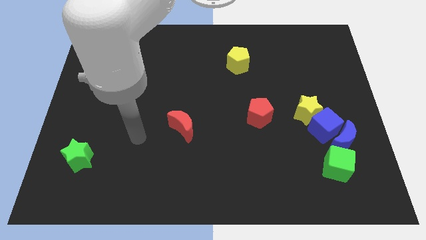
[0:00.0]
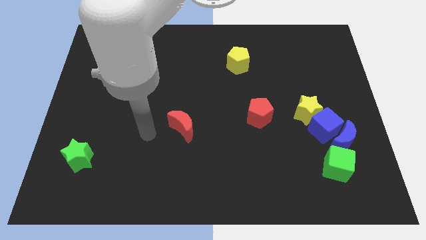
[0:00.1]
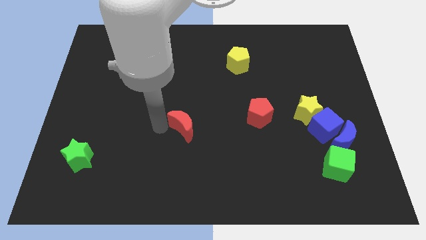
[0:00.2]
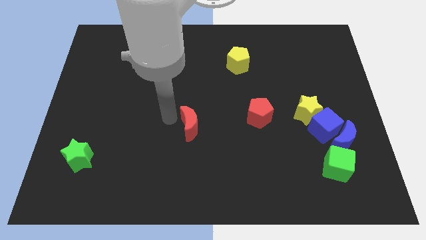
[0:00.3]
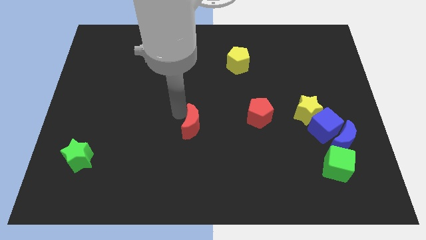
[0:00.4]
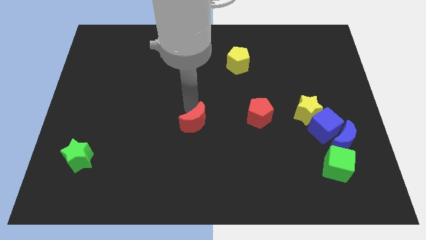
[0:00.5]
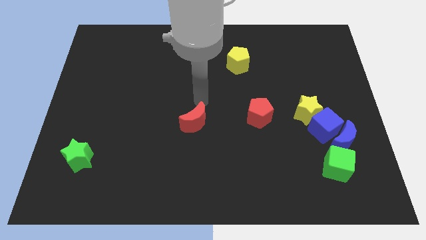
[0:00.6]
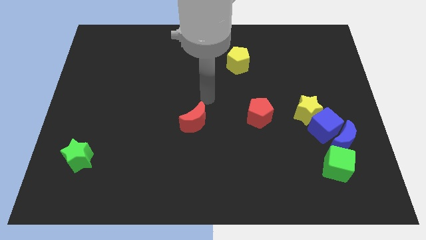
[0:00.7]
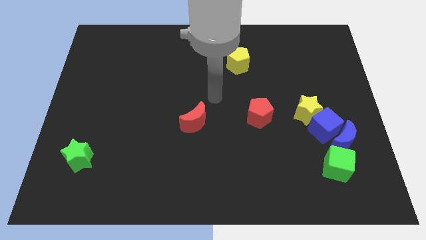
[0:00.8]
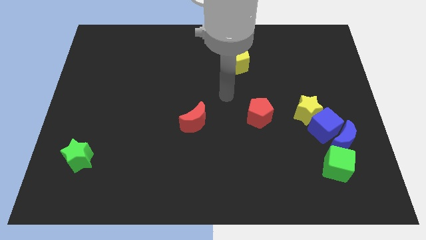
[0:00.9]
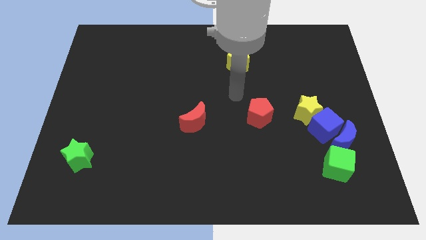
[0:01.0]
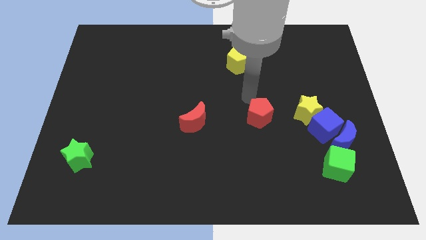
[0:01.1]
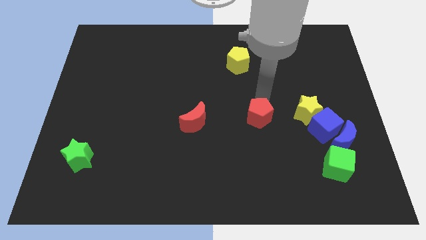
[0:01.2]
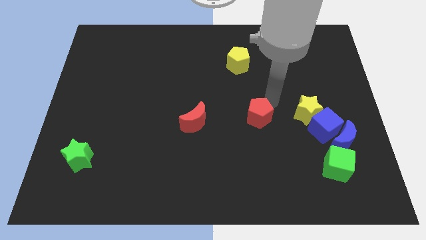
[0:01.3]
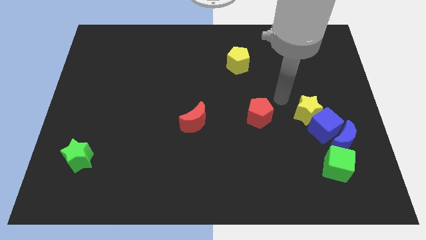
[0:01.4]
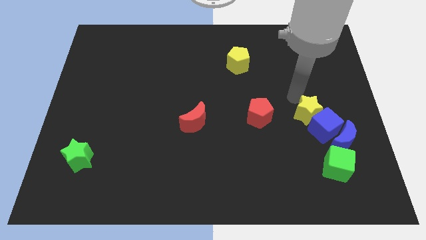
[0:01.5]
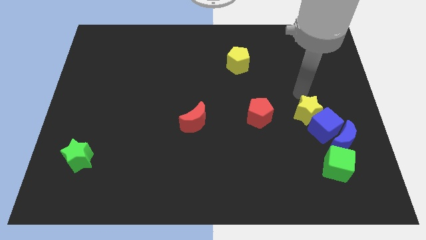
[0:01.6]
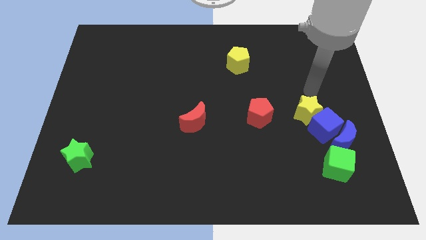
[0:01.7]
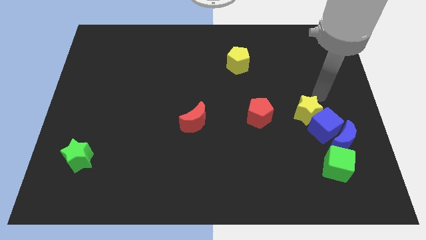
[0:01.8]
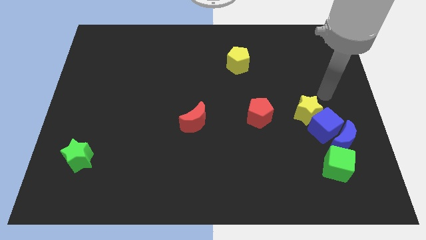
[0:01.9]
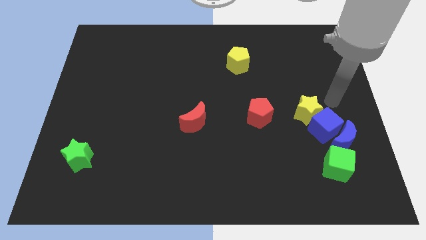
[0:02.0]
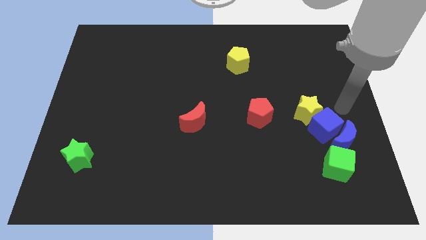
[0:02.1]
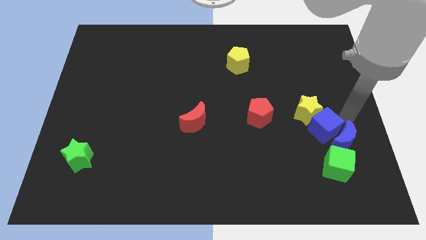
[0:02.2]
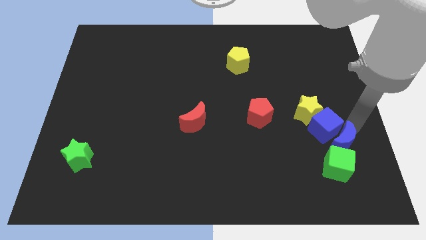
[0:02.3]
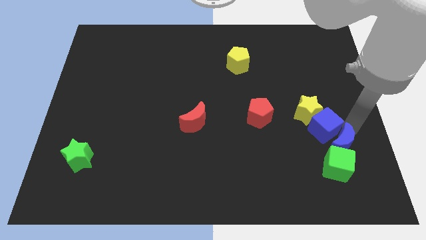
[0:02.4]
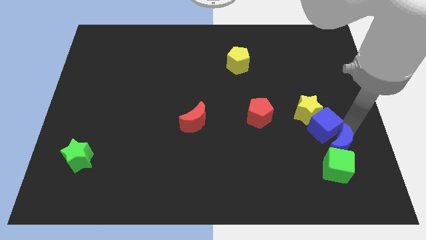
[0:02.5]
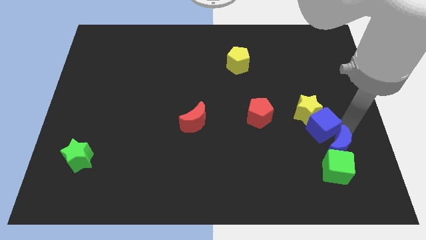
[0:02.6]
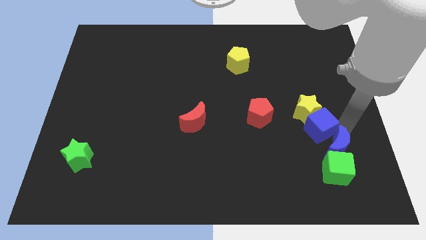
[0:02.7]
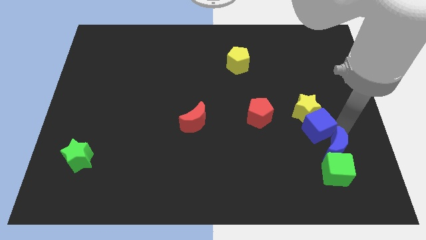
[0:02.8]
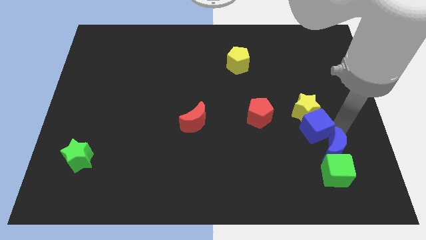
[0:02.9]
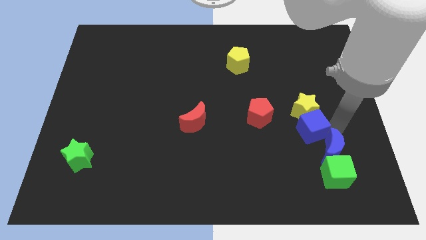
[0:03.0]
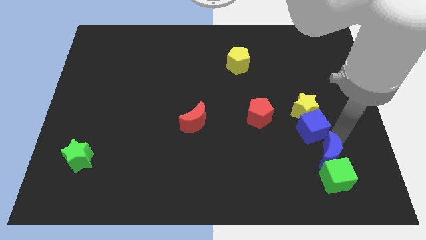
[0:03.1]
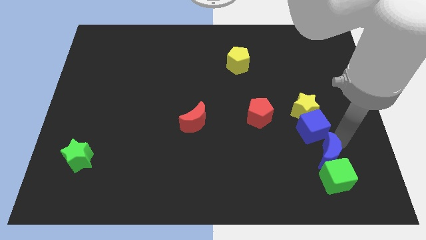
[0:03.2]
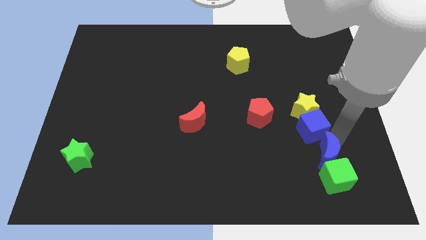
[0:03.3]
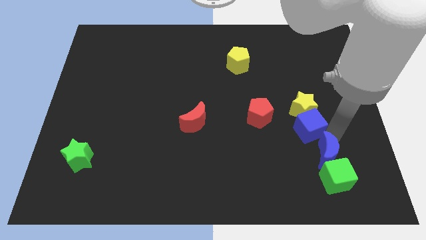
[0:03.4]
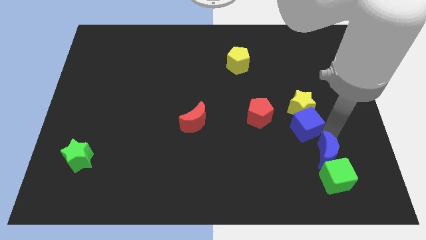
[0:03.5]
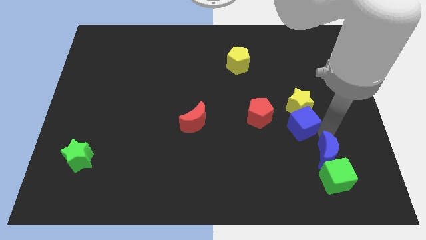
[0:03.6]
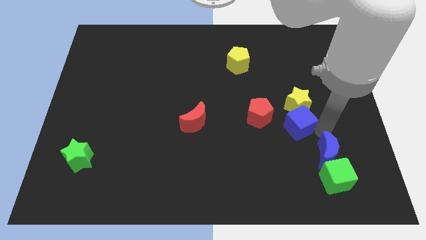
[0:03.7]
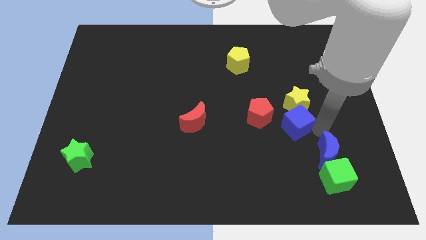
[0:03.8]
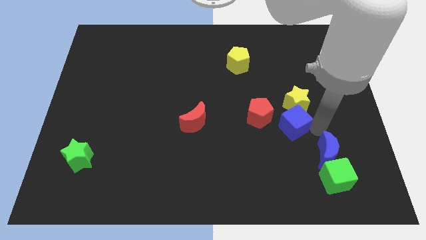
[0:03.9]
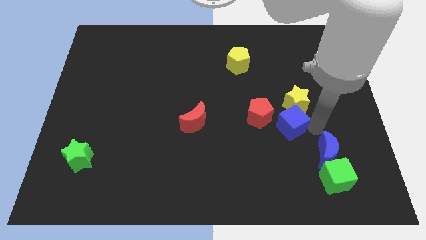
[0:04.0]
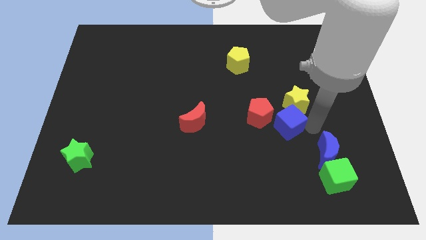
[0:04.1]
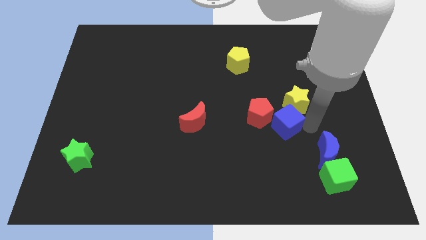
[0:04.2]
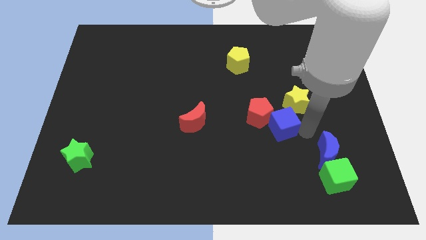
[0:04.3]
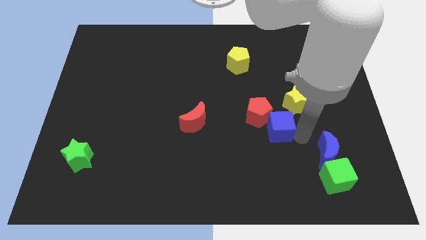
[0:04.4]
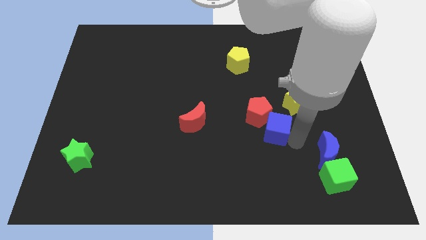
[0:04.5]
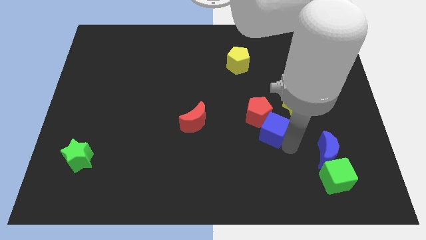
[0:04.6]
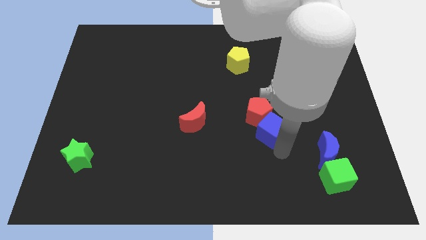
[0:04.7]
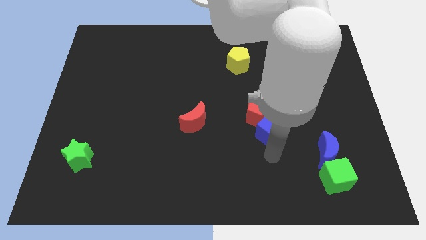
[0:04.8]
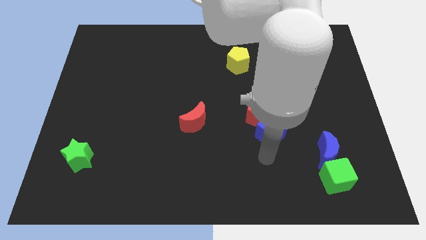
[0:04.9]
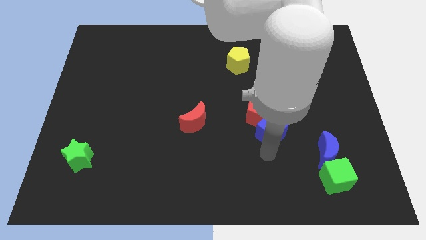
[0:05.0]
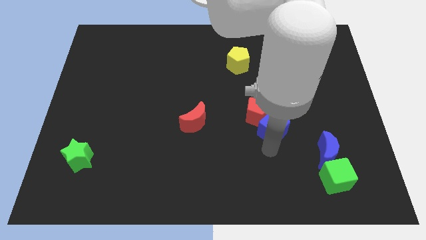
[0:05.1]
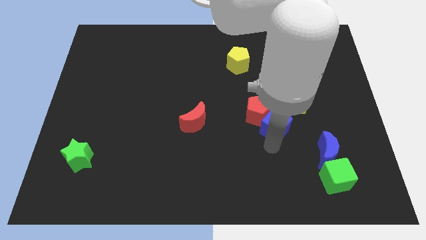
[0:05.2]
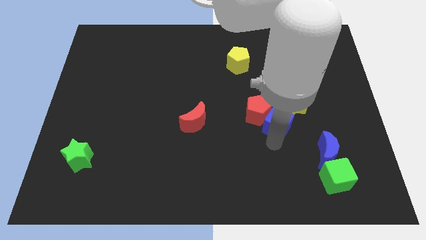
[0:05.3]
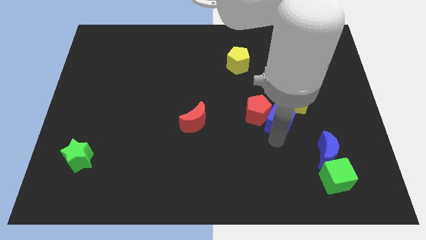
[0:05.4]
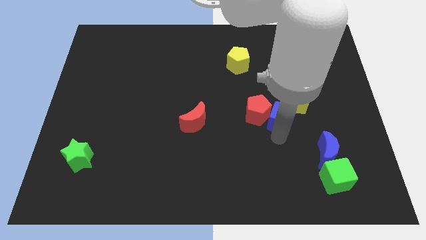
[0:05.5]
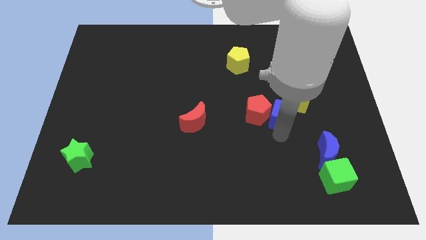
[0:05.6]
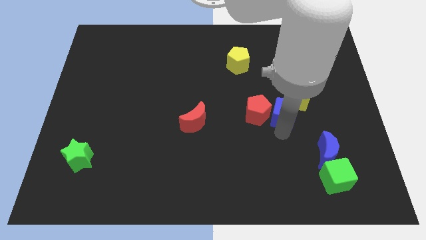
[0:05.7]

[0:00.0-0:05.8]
push the blue cube diagonally up and to the right of the red pentagon

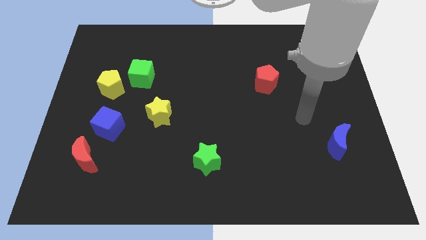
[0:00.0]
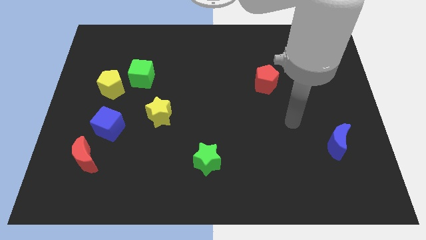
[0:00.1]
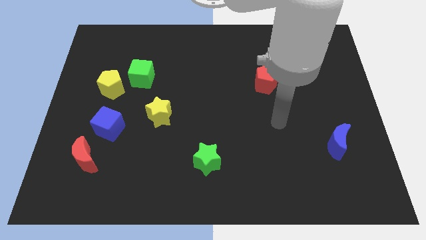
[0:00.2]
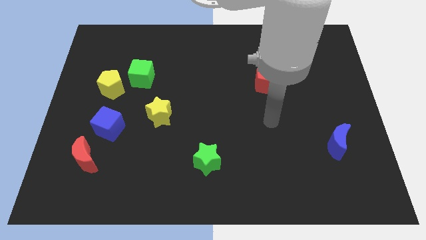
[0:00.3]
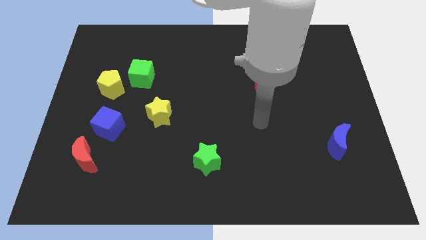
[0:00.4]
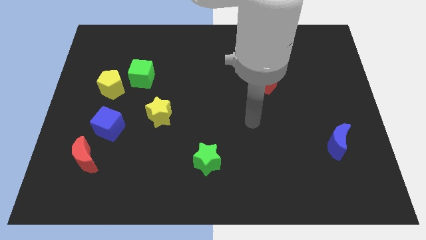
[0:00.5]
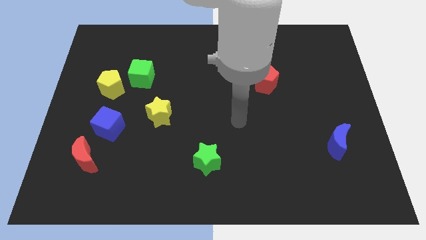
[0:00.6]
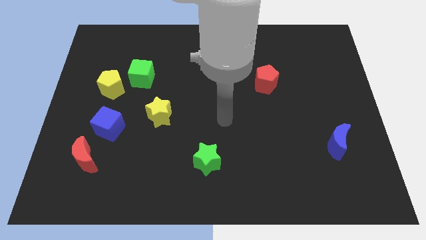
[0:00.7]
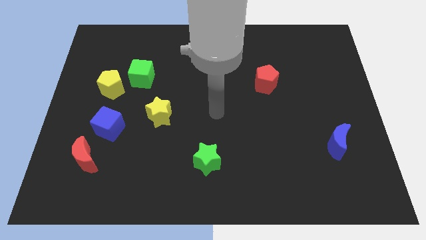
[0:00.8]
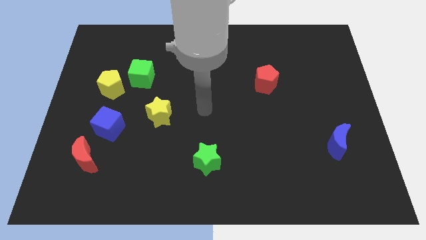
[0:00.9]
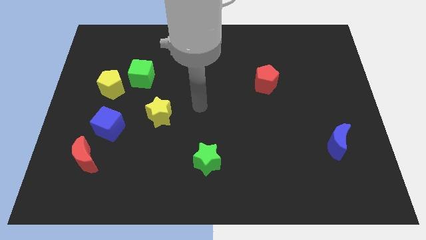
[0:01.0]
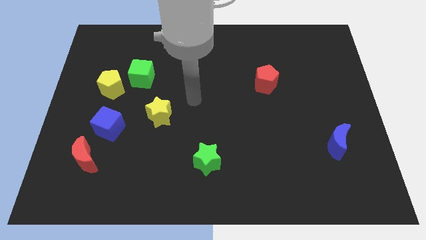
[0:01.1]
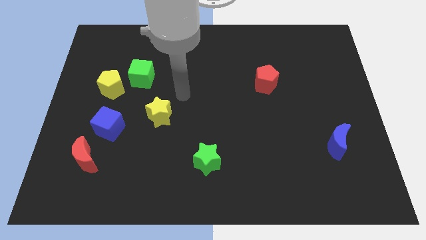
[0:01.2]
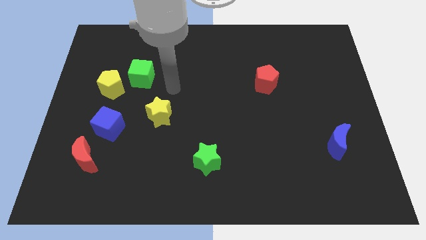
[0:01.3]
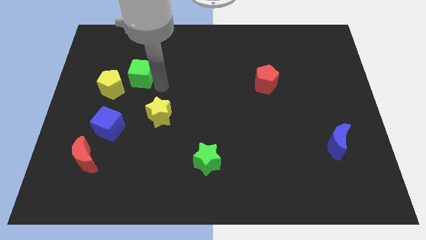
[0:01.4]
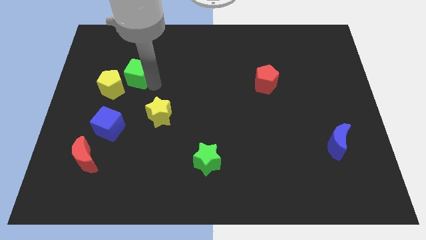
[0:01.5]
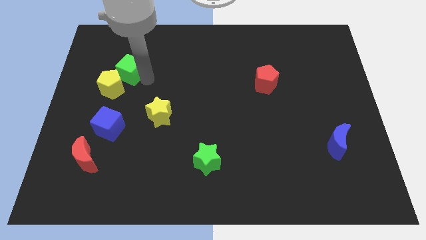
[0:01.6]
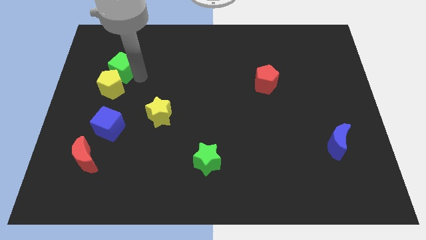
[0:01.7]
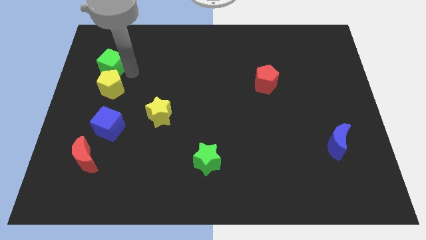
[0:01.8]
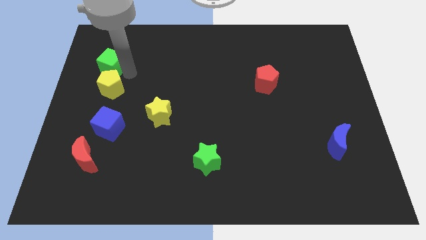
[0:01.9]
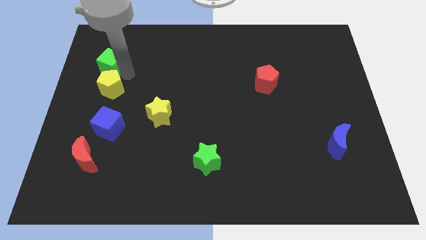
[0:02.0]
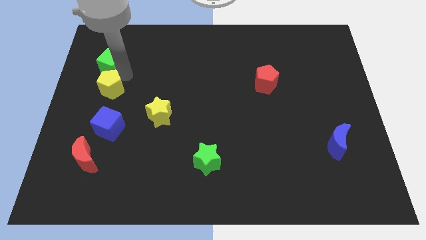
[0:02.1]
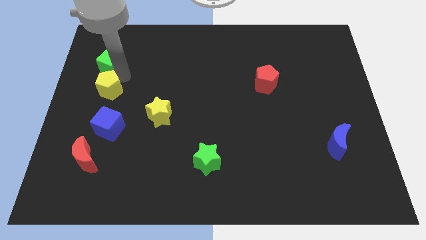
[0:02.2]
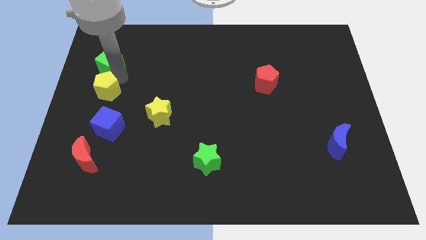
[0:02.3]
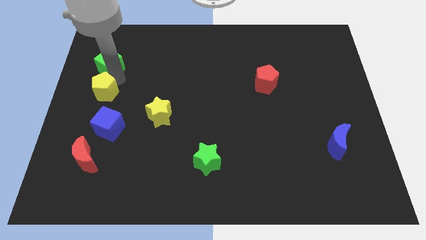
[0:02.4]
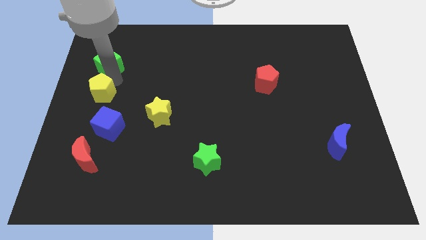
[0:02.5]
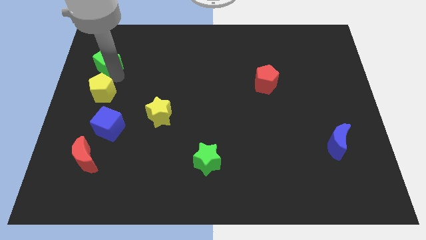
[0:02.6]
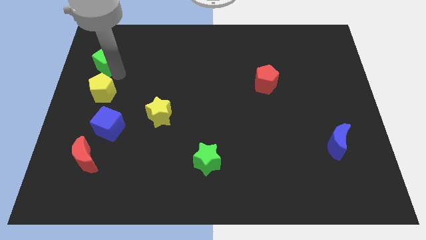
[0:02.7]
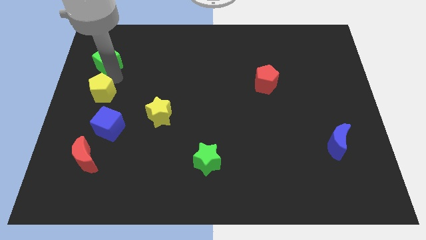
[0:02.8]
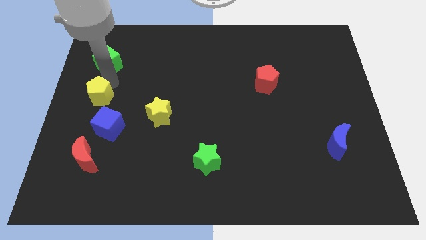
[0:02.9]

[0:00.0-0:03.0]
put the yellow pentagon to the top left side of the blue cube
